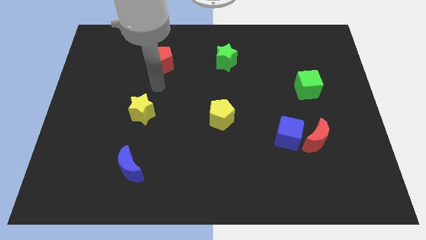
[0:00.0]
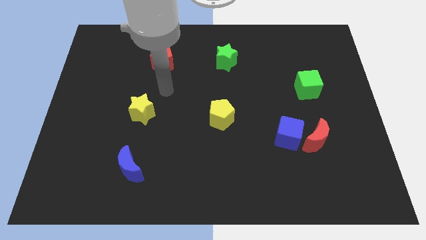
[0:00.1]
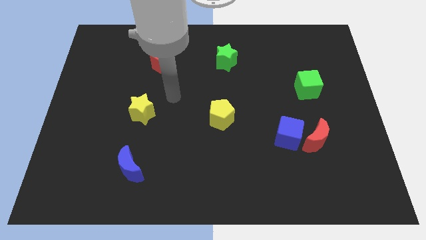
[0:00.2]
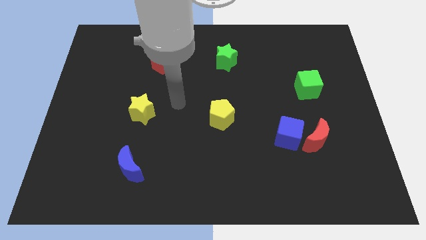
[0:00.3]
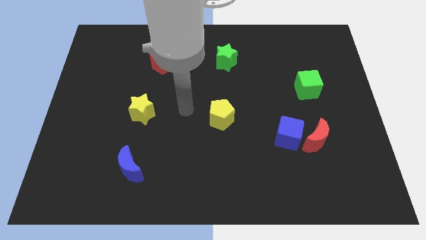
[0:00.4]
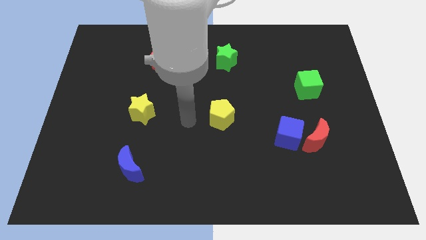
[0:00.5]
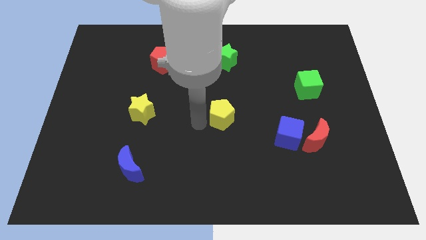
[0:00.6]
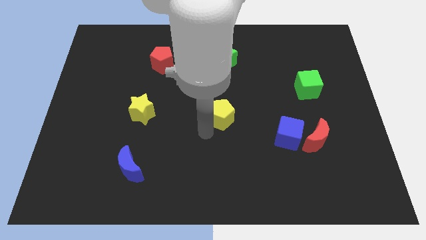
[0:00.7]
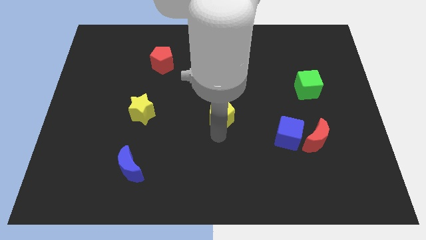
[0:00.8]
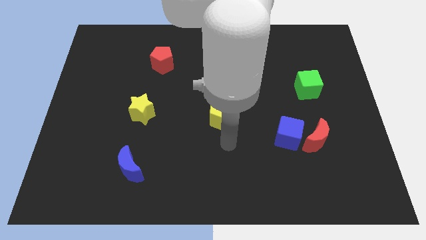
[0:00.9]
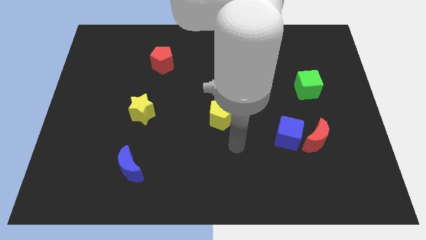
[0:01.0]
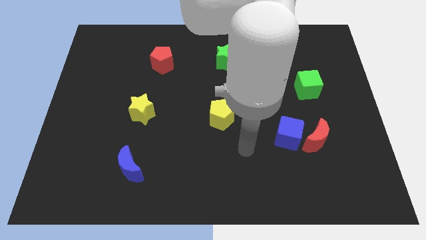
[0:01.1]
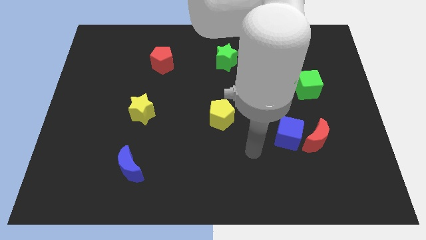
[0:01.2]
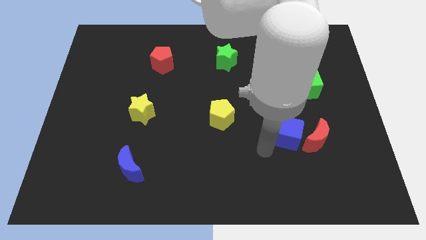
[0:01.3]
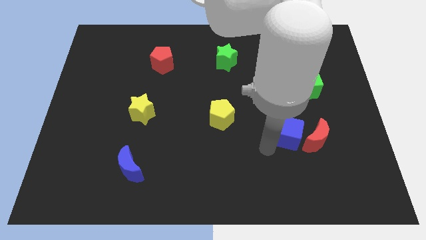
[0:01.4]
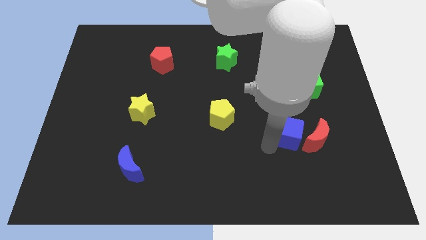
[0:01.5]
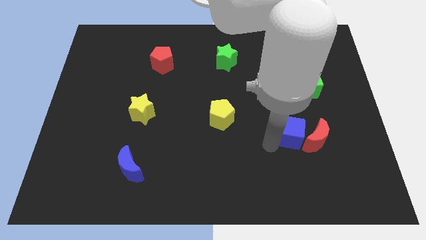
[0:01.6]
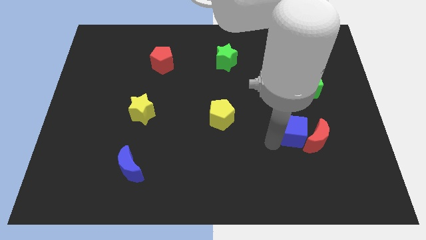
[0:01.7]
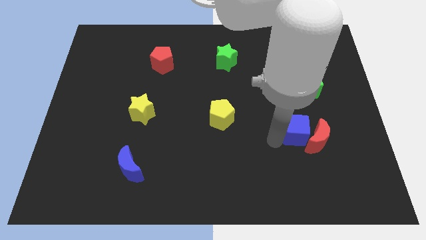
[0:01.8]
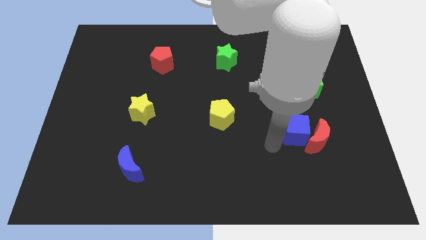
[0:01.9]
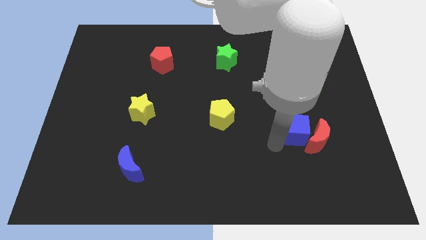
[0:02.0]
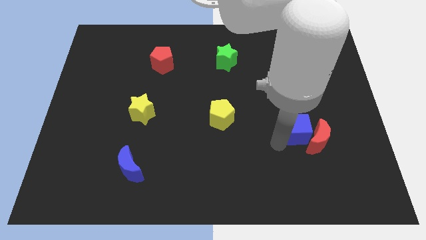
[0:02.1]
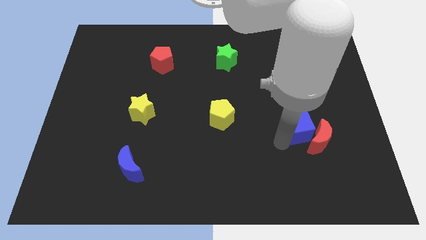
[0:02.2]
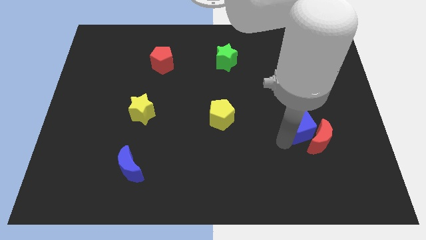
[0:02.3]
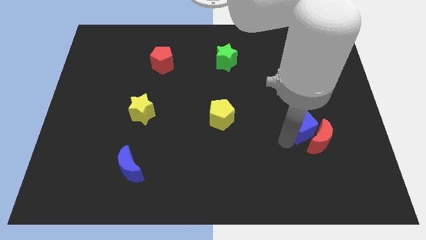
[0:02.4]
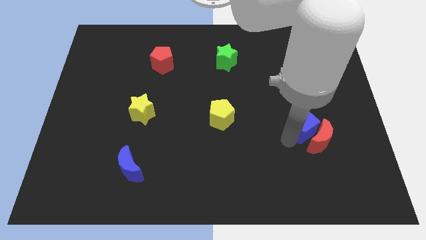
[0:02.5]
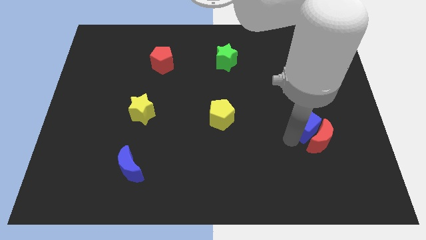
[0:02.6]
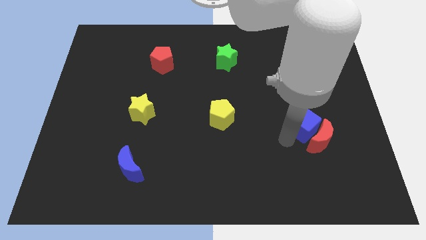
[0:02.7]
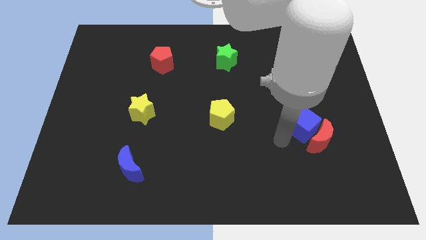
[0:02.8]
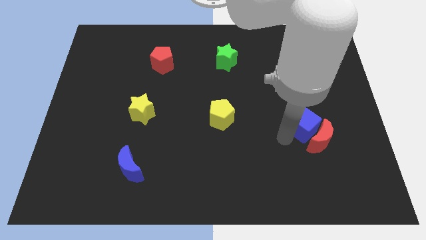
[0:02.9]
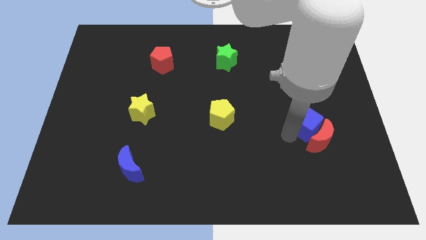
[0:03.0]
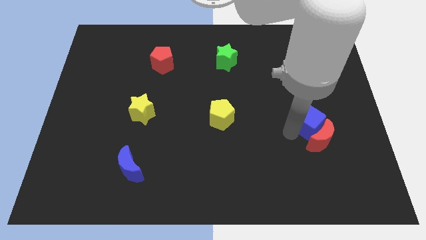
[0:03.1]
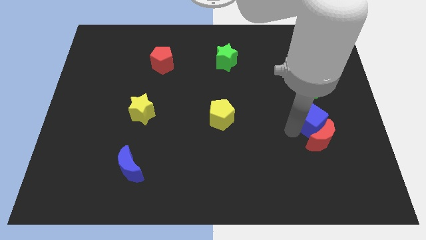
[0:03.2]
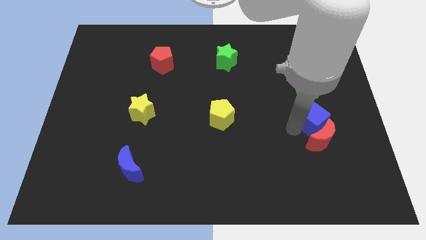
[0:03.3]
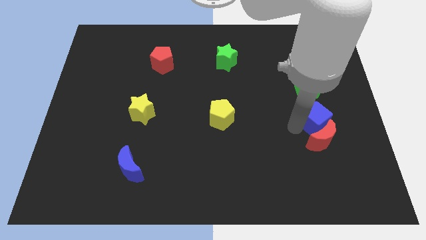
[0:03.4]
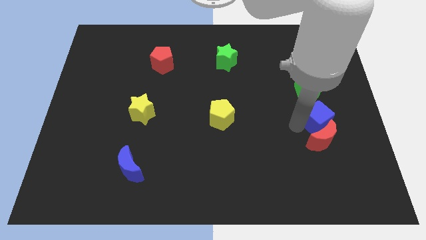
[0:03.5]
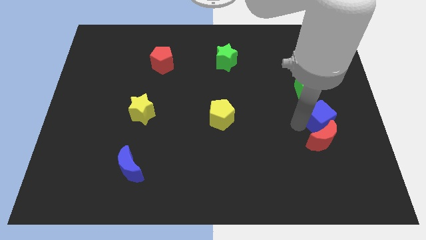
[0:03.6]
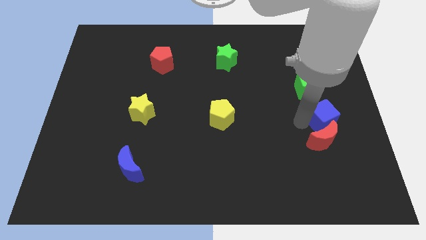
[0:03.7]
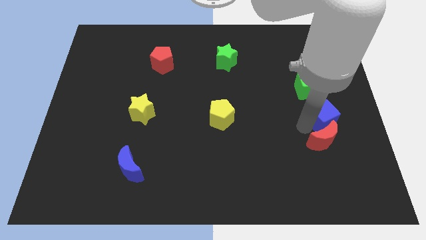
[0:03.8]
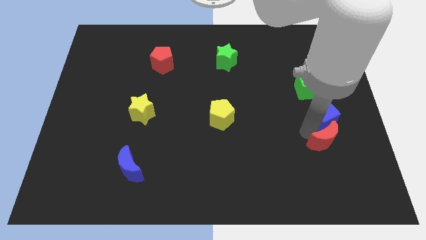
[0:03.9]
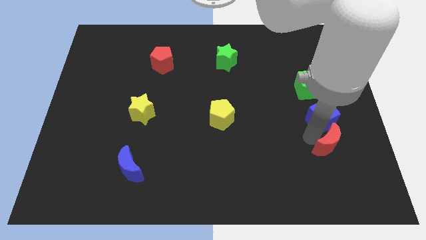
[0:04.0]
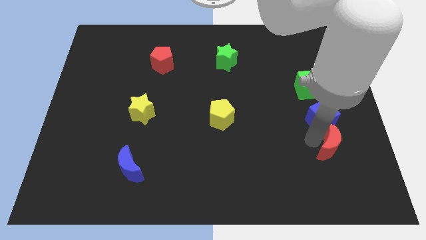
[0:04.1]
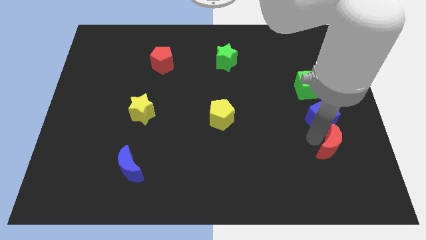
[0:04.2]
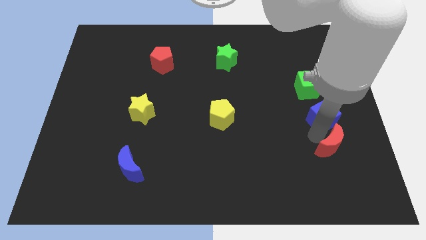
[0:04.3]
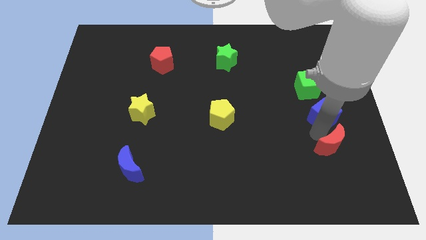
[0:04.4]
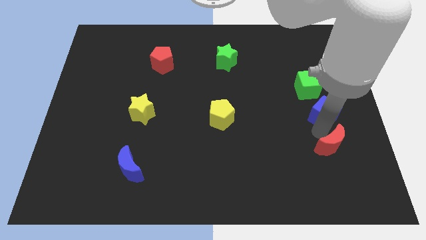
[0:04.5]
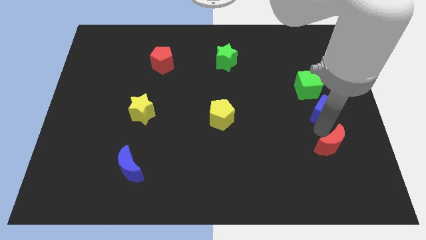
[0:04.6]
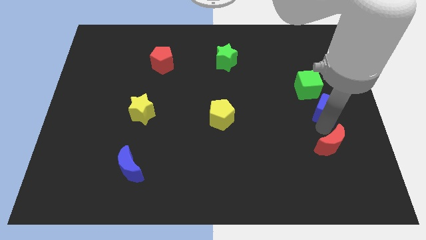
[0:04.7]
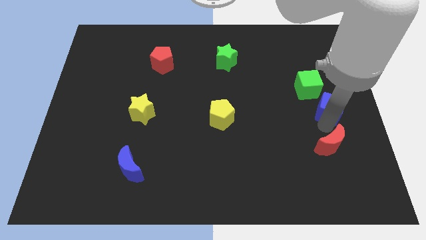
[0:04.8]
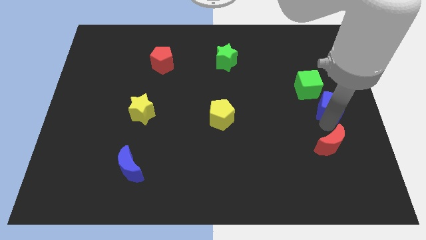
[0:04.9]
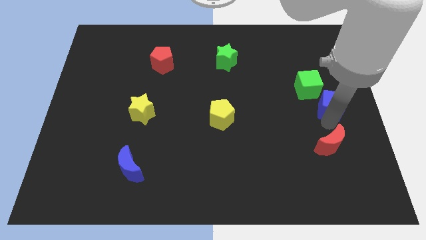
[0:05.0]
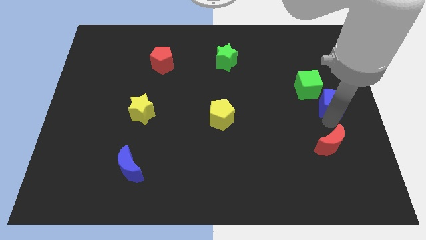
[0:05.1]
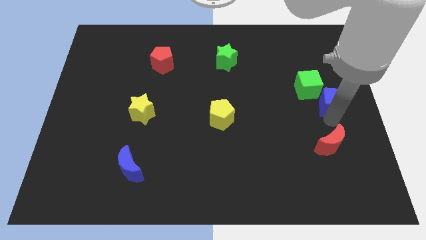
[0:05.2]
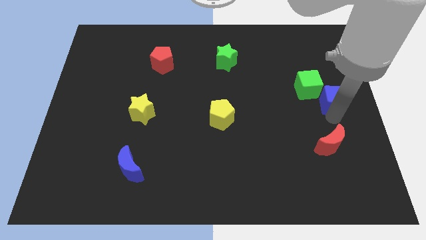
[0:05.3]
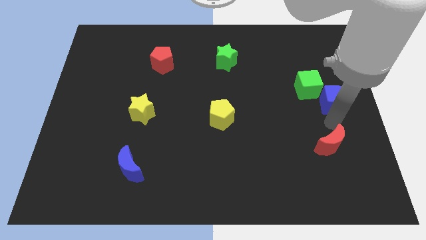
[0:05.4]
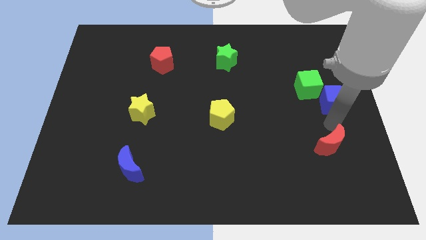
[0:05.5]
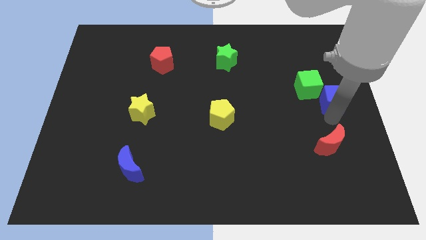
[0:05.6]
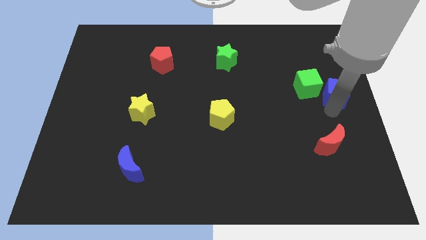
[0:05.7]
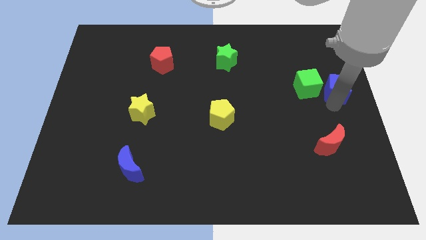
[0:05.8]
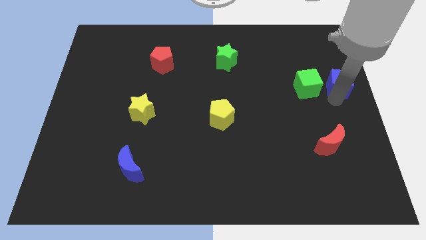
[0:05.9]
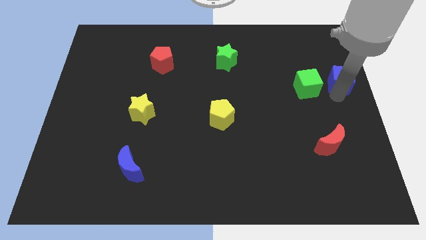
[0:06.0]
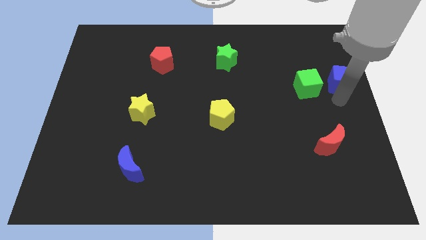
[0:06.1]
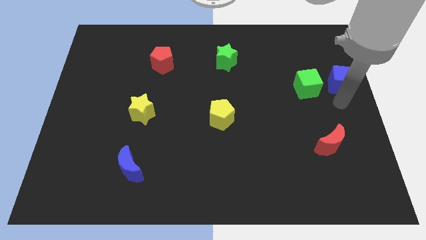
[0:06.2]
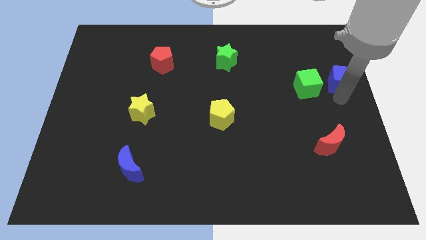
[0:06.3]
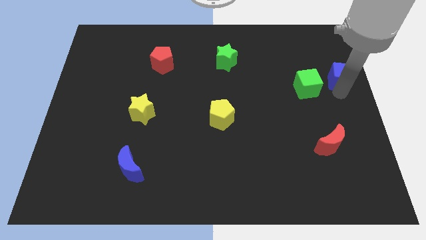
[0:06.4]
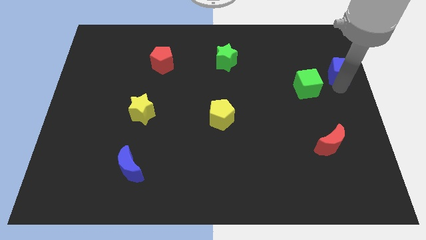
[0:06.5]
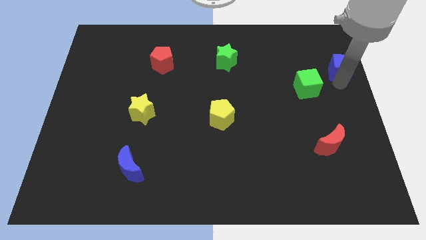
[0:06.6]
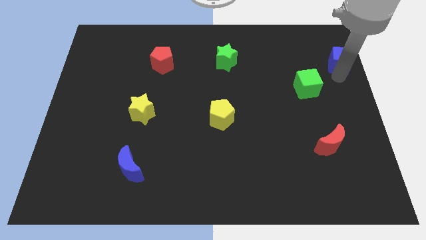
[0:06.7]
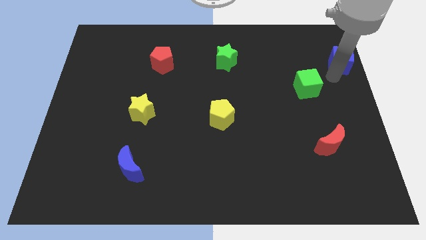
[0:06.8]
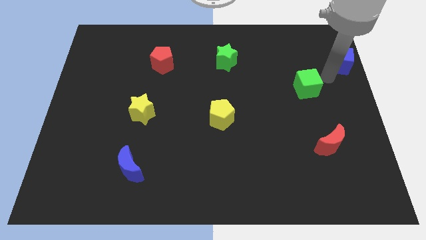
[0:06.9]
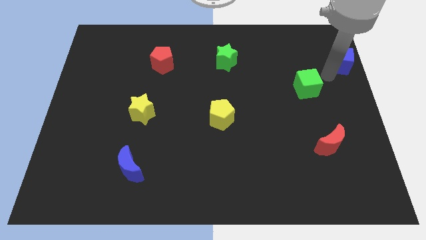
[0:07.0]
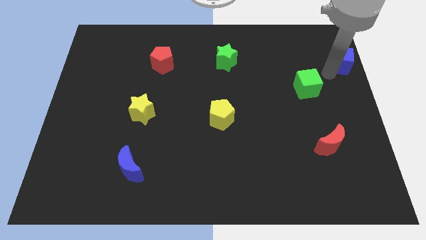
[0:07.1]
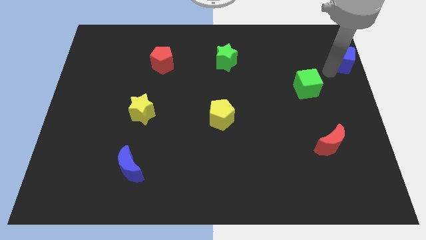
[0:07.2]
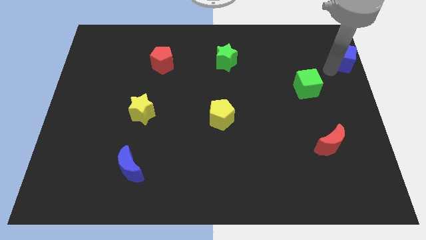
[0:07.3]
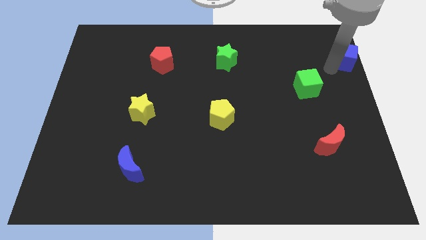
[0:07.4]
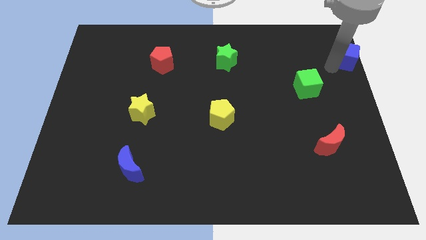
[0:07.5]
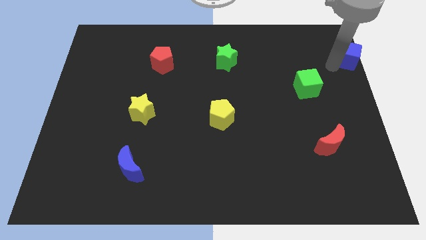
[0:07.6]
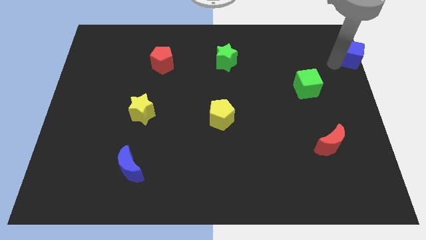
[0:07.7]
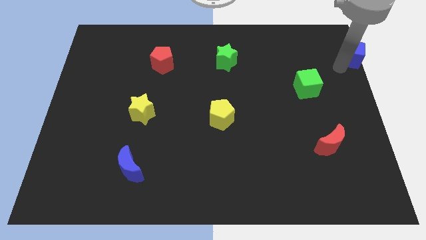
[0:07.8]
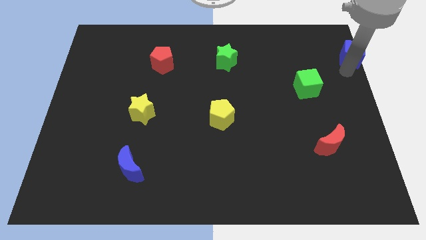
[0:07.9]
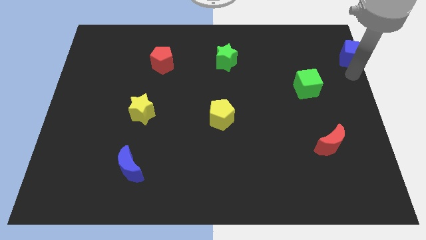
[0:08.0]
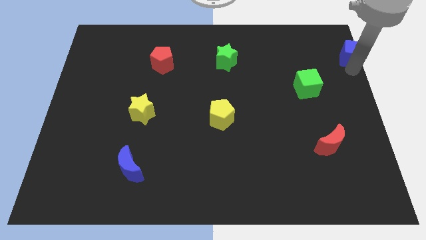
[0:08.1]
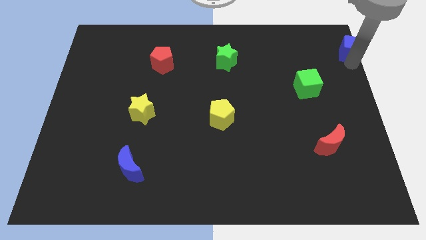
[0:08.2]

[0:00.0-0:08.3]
push the blue cube to the top right
